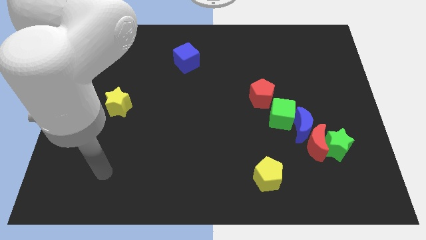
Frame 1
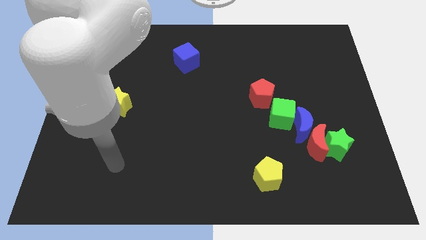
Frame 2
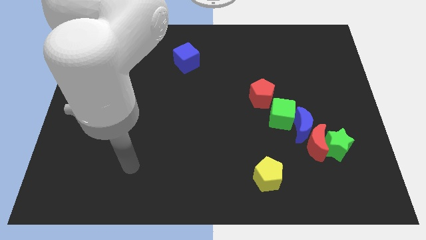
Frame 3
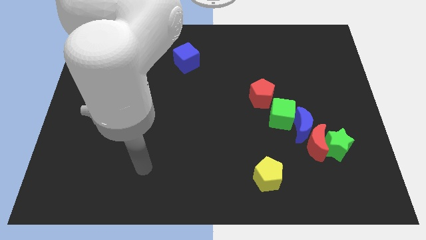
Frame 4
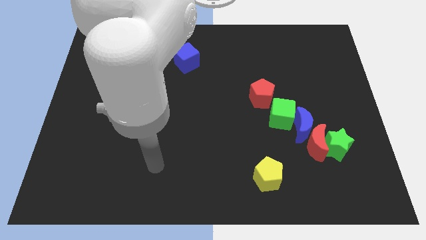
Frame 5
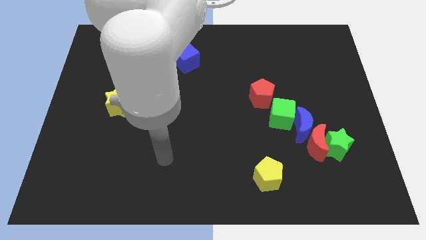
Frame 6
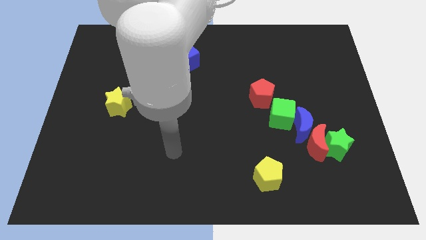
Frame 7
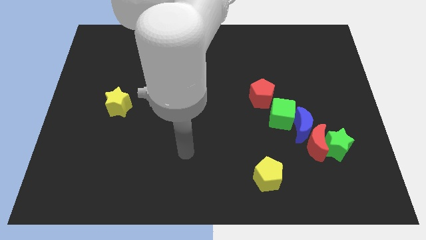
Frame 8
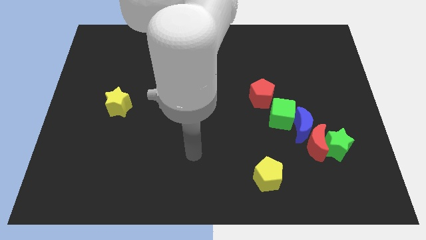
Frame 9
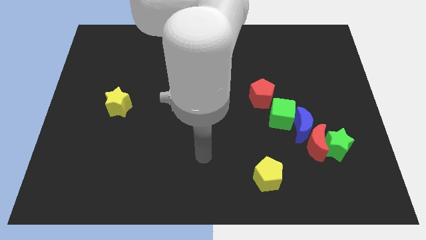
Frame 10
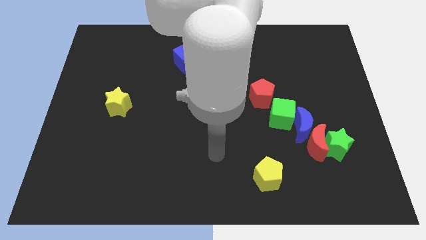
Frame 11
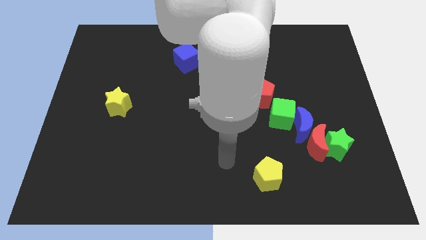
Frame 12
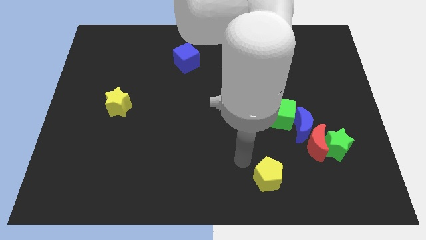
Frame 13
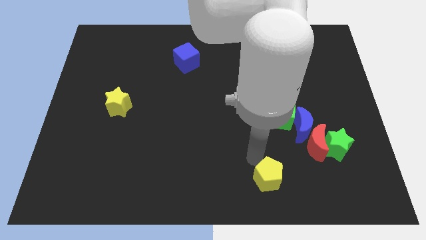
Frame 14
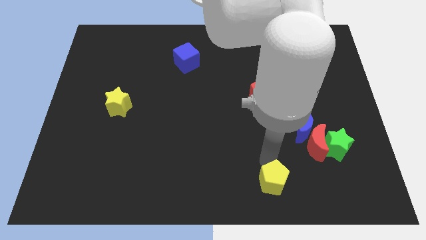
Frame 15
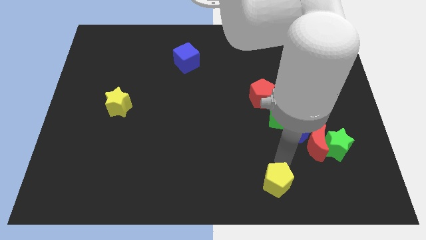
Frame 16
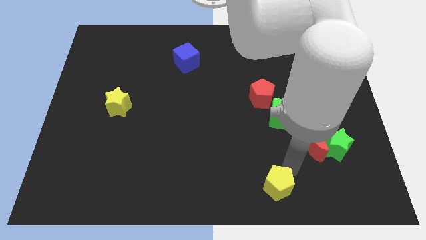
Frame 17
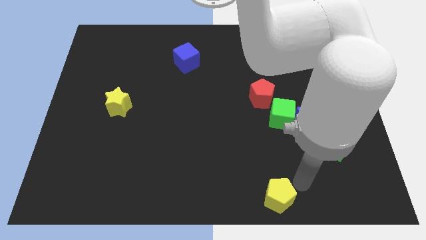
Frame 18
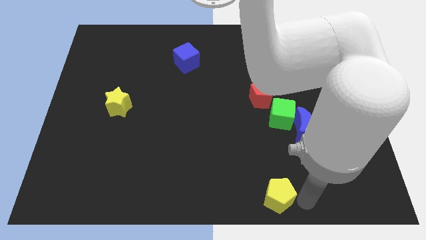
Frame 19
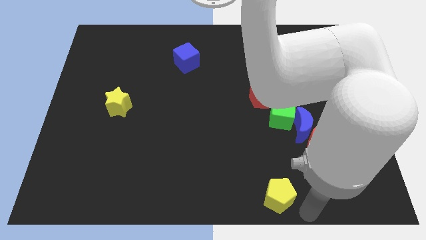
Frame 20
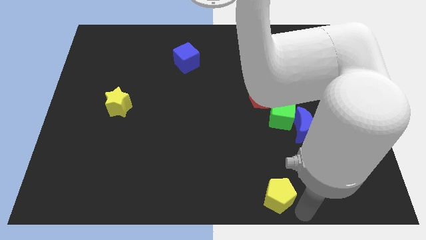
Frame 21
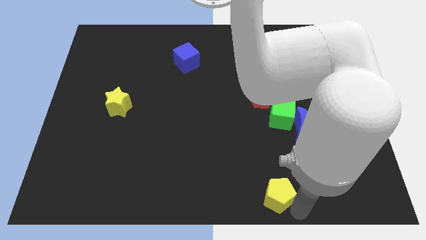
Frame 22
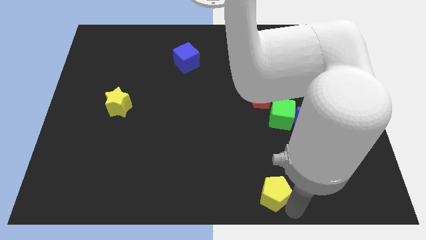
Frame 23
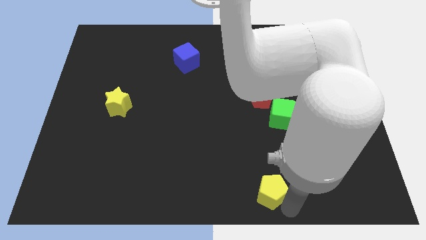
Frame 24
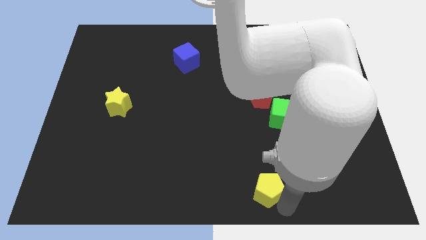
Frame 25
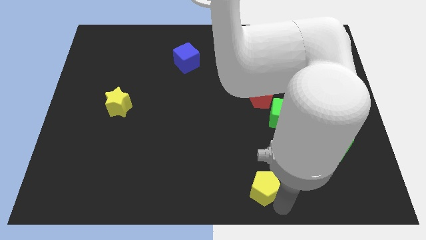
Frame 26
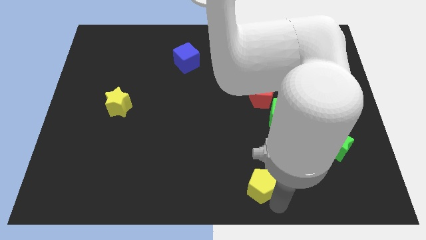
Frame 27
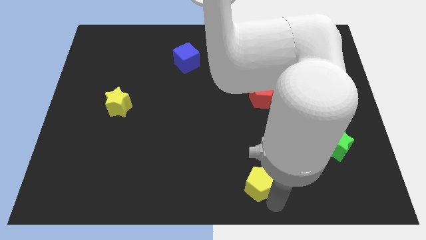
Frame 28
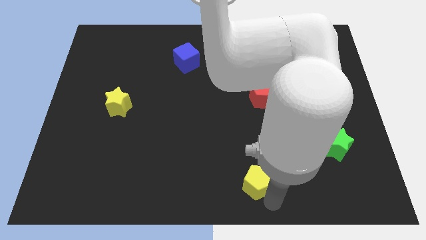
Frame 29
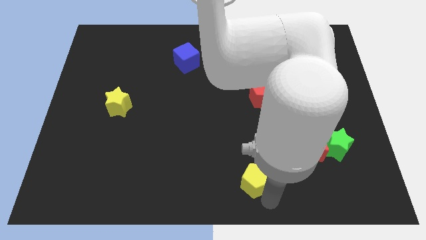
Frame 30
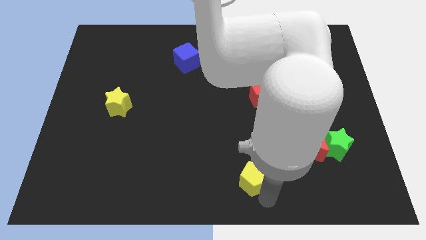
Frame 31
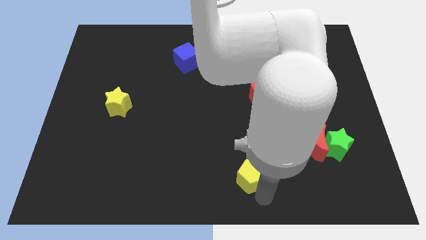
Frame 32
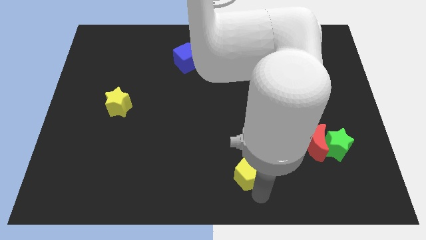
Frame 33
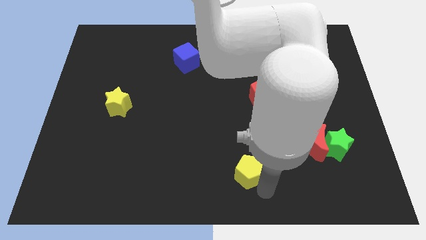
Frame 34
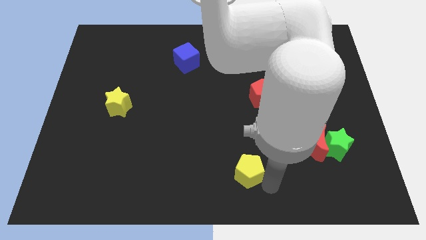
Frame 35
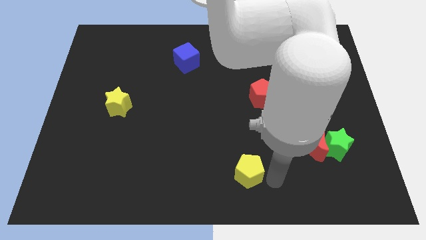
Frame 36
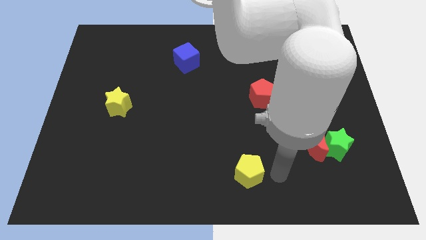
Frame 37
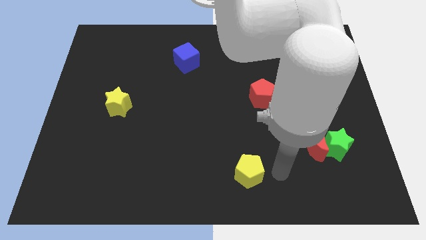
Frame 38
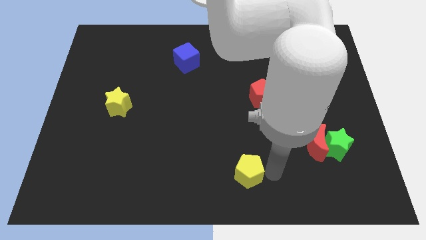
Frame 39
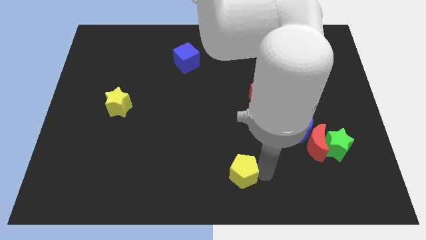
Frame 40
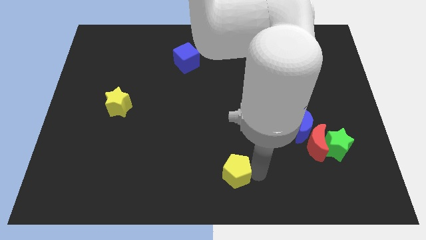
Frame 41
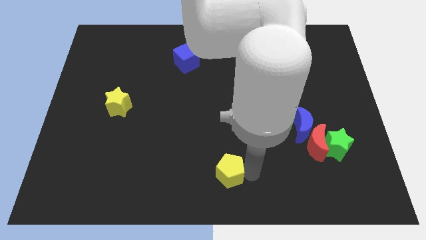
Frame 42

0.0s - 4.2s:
slide the yellow pentagon slightly left

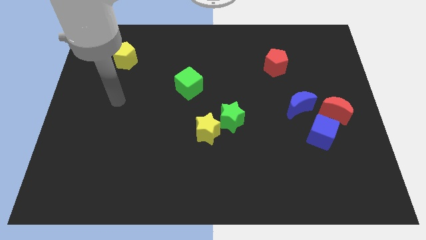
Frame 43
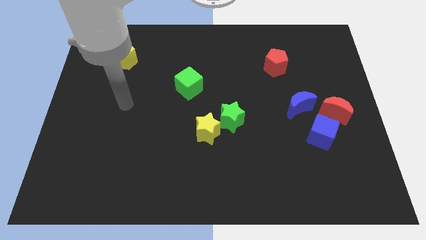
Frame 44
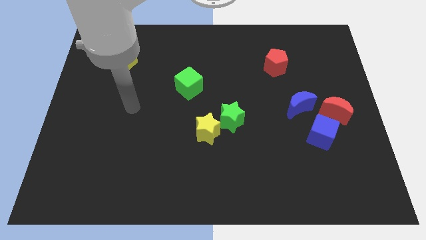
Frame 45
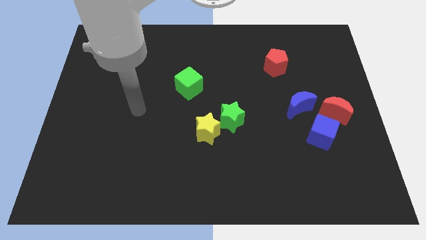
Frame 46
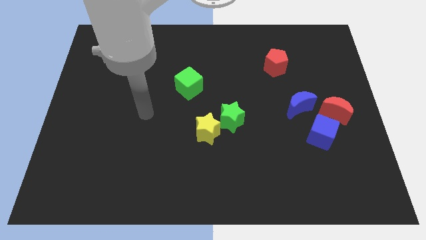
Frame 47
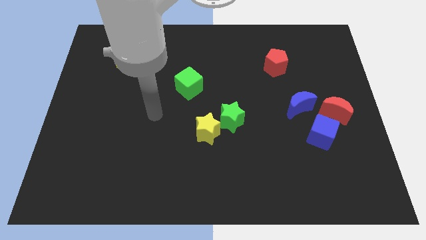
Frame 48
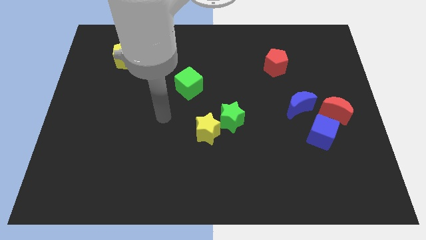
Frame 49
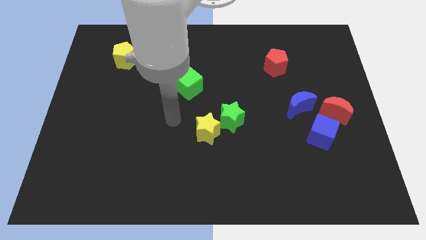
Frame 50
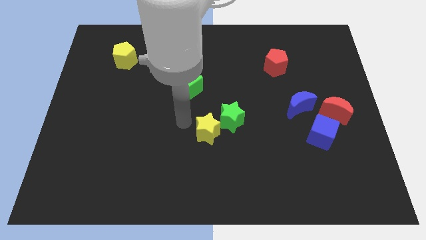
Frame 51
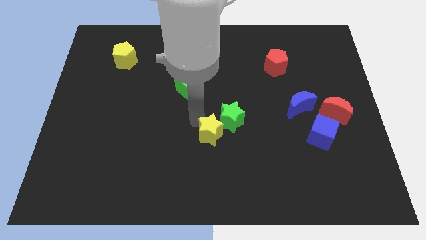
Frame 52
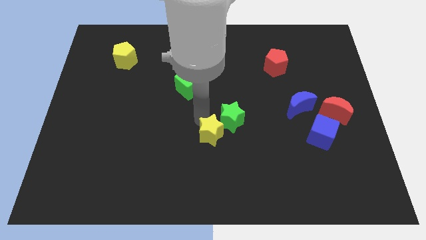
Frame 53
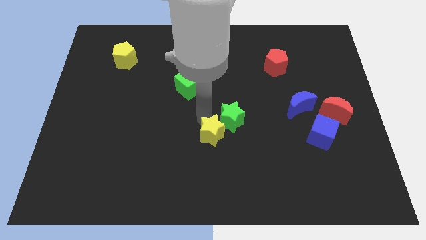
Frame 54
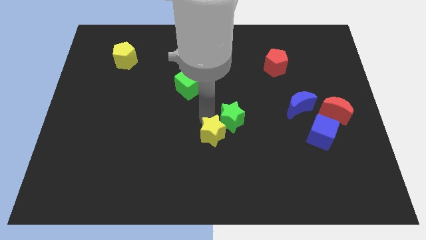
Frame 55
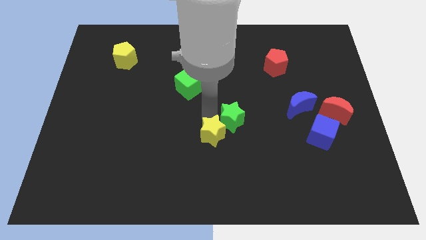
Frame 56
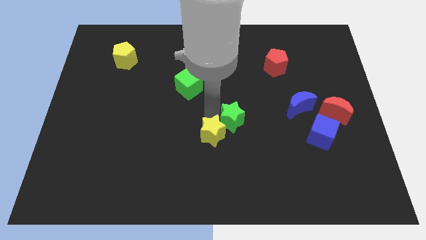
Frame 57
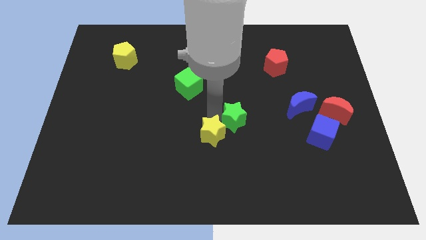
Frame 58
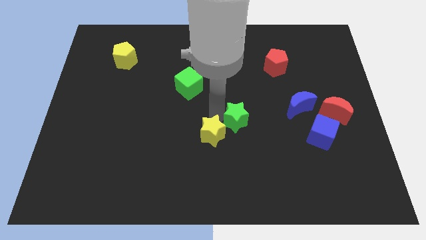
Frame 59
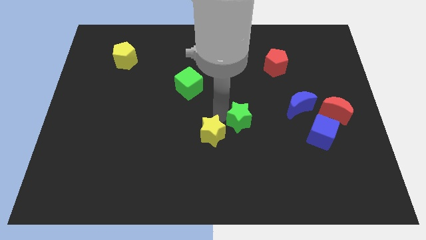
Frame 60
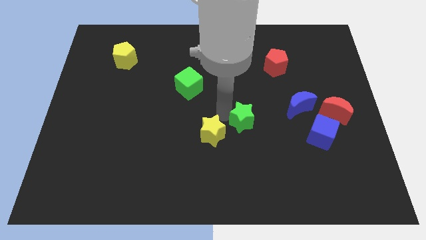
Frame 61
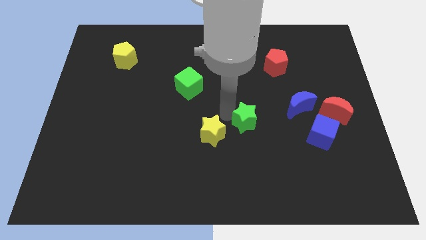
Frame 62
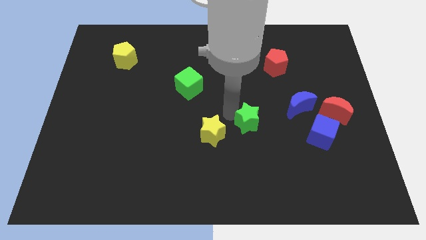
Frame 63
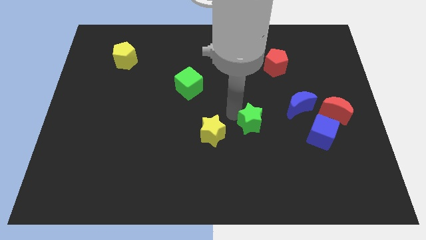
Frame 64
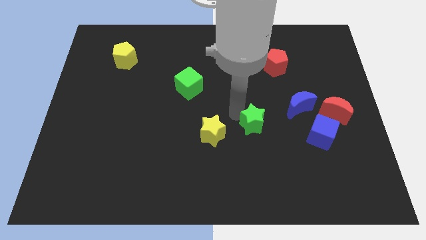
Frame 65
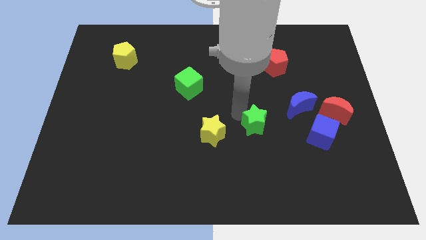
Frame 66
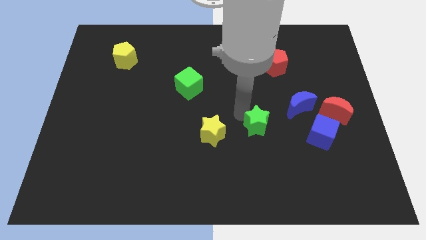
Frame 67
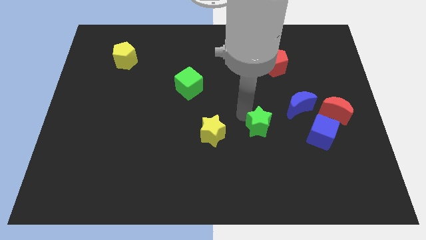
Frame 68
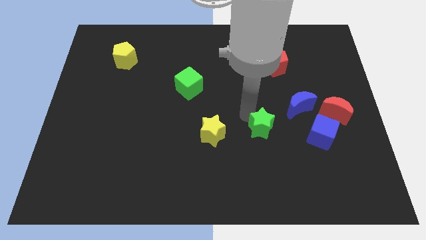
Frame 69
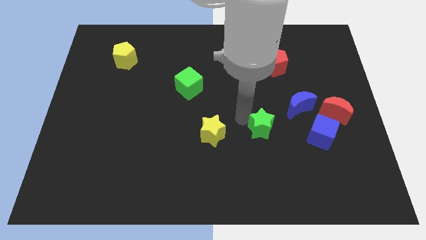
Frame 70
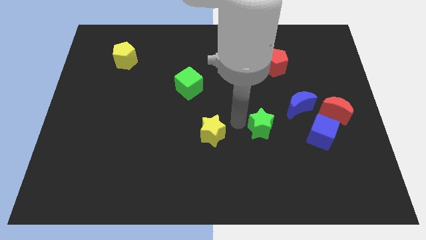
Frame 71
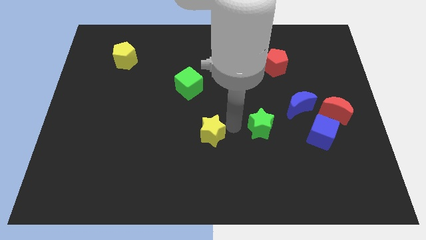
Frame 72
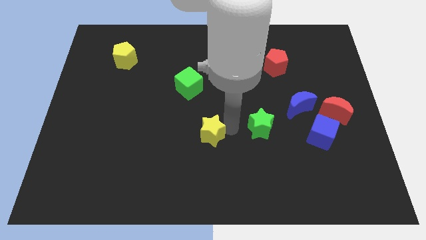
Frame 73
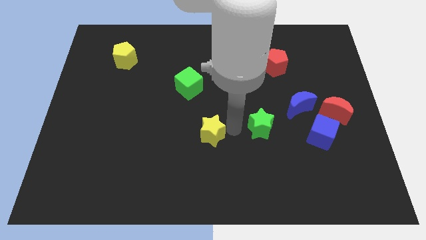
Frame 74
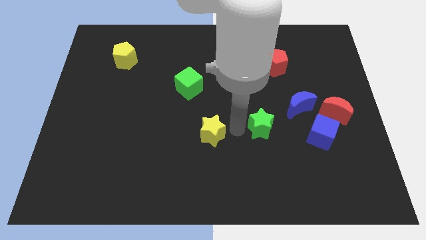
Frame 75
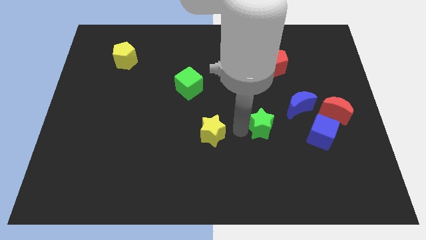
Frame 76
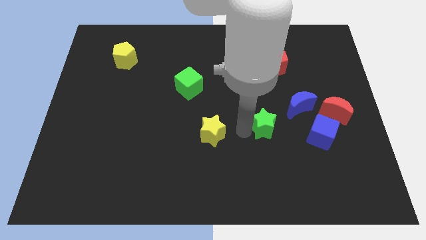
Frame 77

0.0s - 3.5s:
slightly slide the green star right
